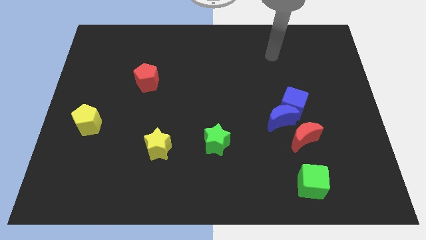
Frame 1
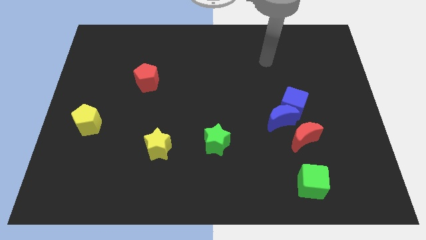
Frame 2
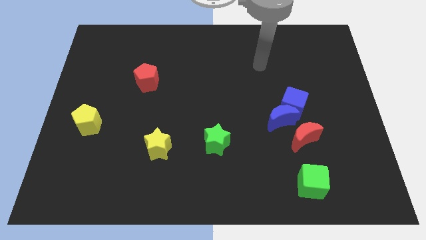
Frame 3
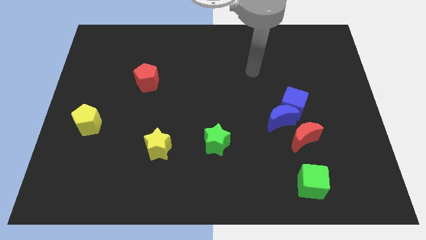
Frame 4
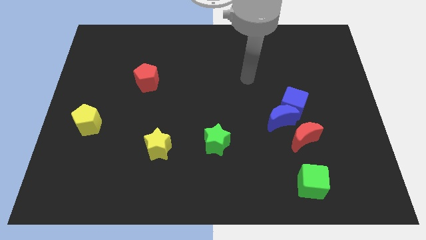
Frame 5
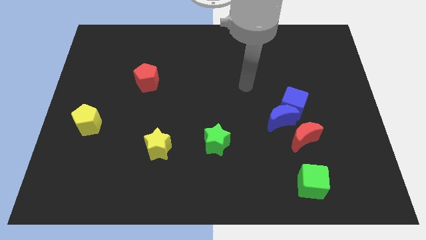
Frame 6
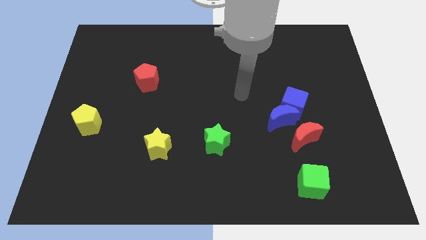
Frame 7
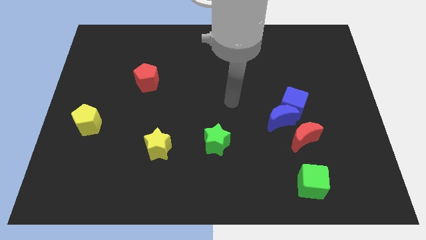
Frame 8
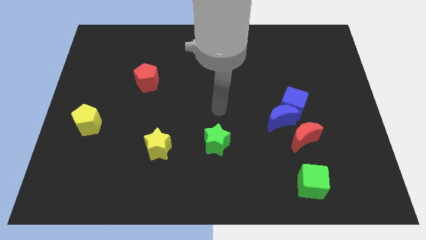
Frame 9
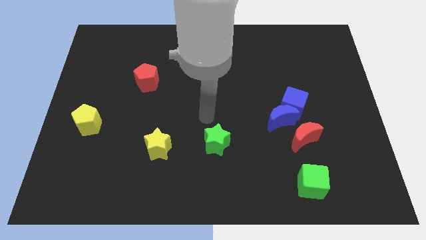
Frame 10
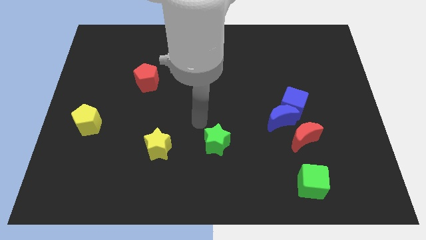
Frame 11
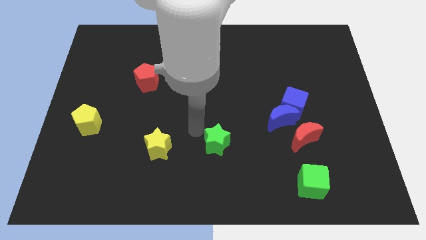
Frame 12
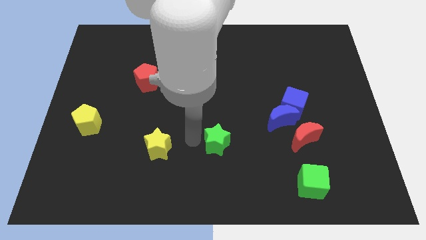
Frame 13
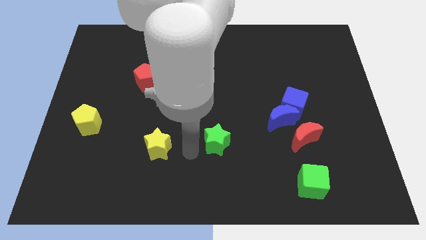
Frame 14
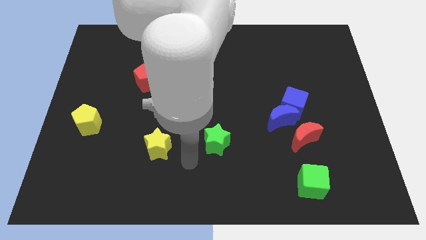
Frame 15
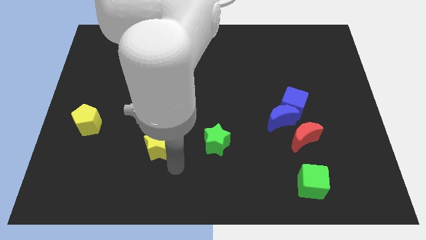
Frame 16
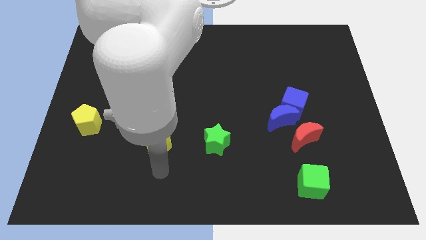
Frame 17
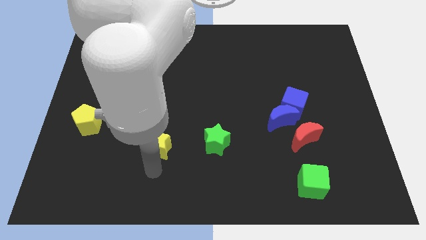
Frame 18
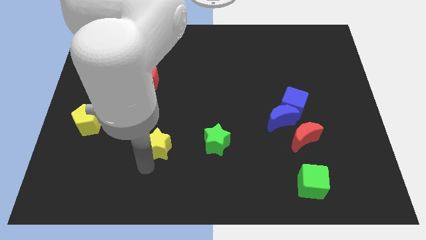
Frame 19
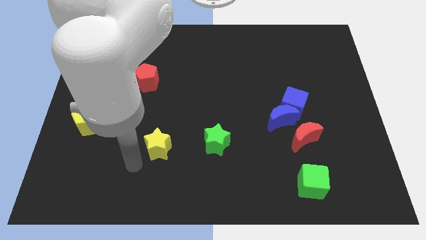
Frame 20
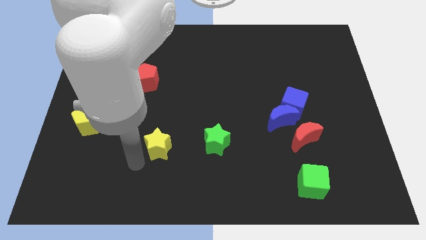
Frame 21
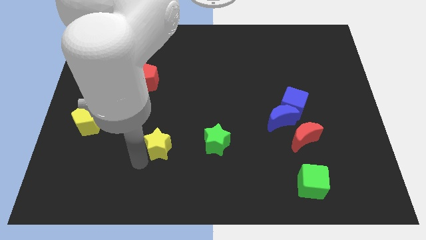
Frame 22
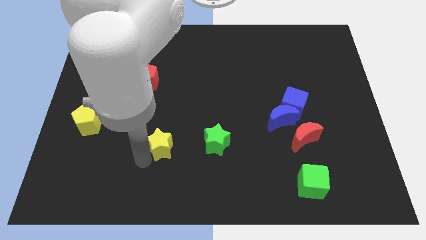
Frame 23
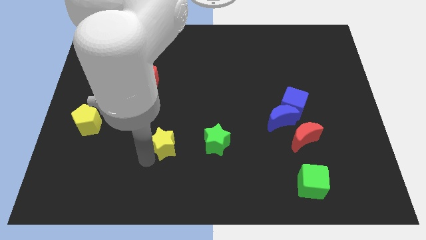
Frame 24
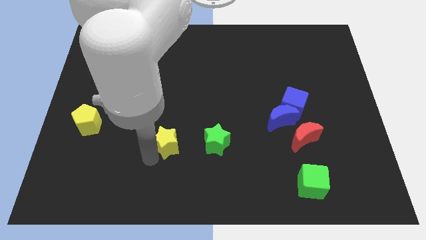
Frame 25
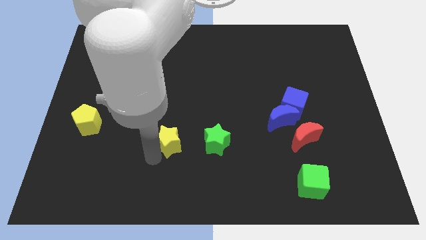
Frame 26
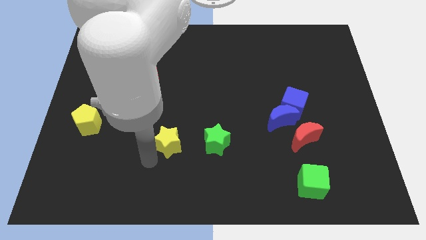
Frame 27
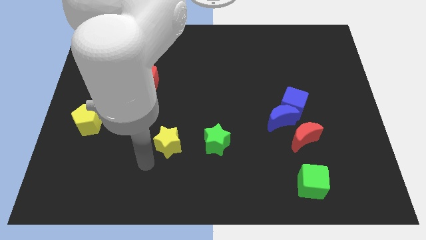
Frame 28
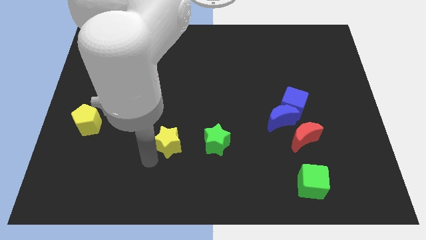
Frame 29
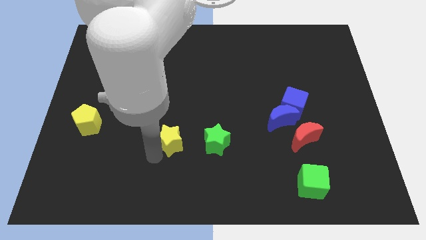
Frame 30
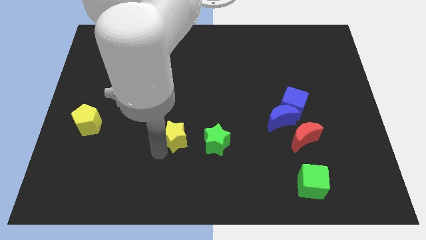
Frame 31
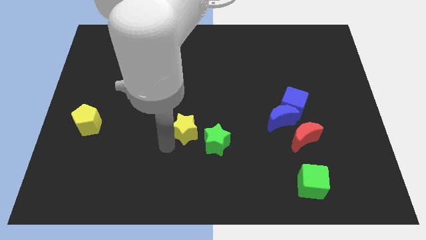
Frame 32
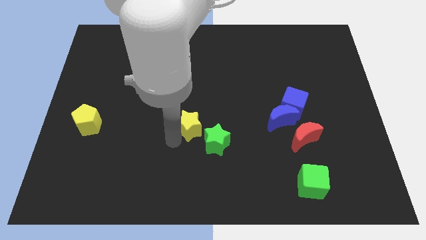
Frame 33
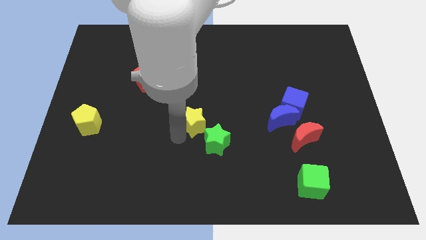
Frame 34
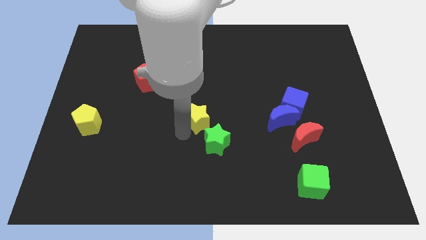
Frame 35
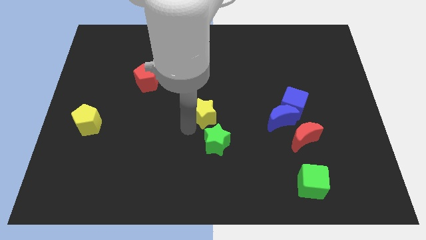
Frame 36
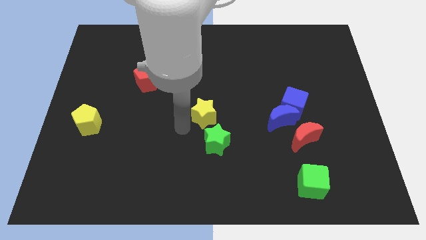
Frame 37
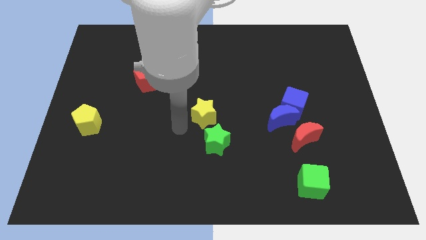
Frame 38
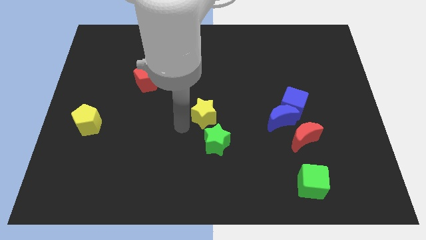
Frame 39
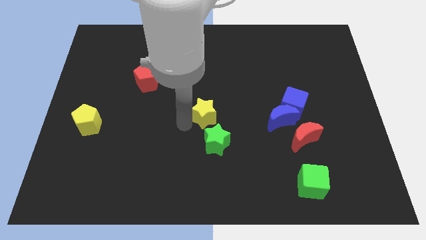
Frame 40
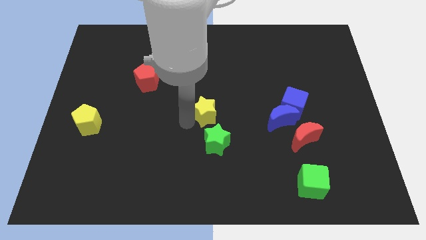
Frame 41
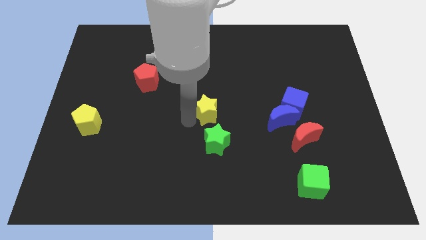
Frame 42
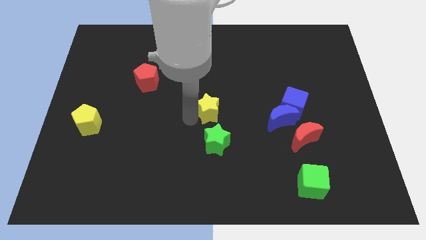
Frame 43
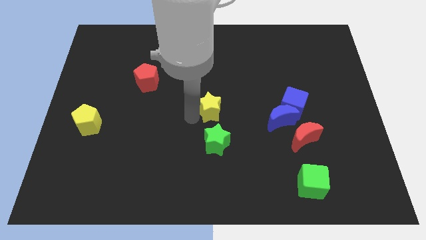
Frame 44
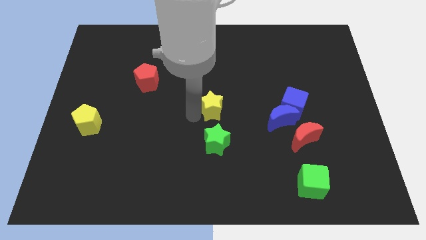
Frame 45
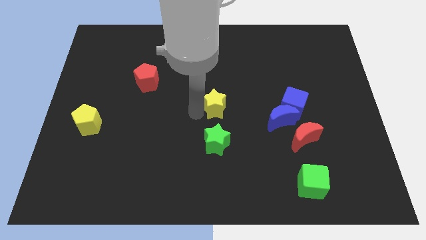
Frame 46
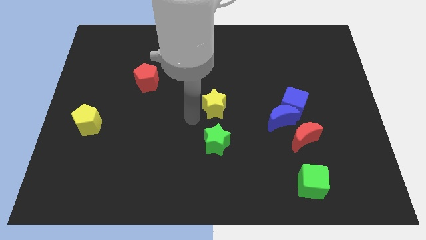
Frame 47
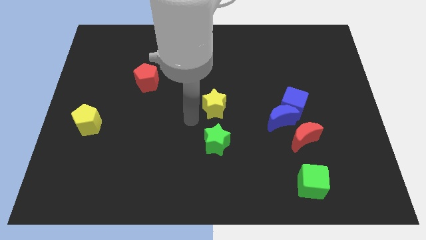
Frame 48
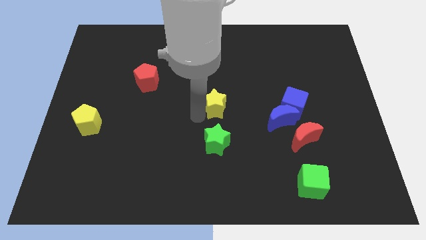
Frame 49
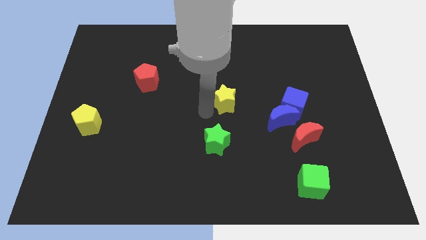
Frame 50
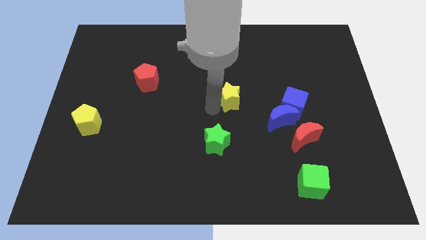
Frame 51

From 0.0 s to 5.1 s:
slide the yellow star upwards and to the right

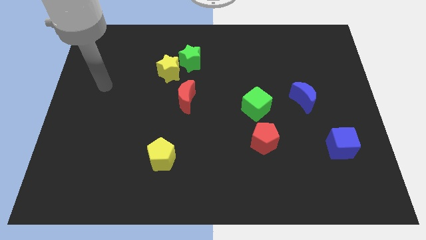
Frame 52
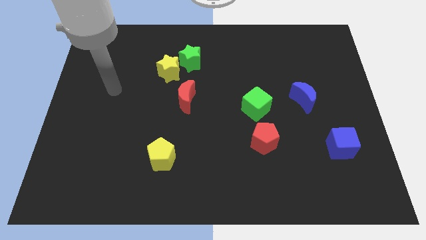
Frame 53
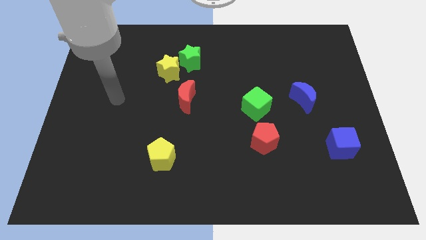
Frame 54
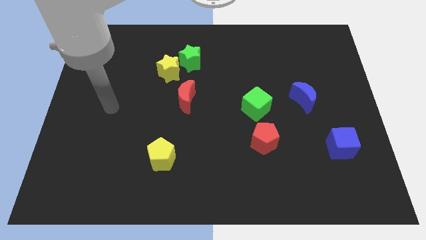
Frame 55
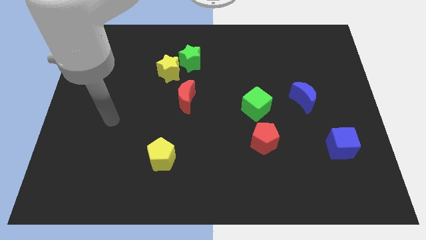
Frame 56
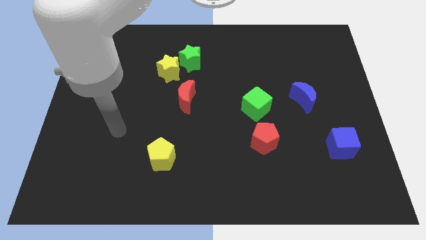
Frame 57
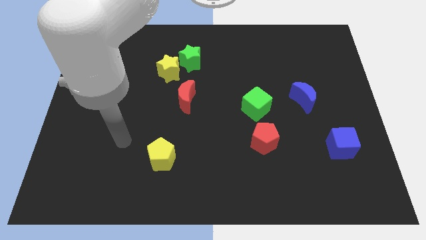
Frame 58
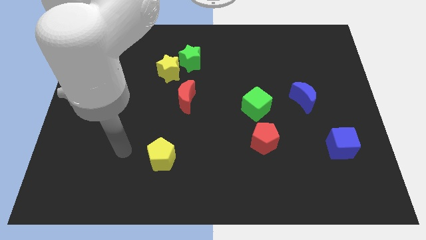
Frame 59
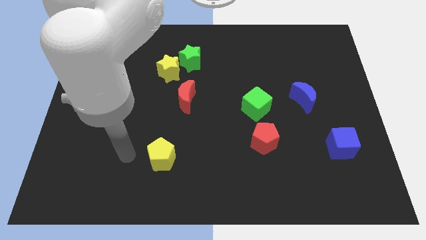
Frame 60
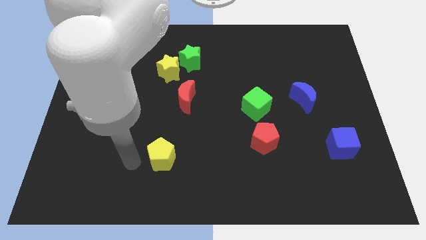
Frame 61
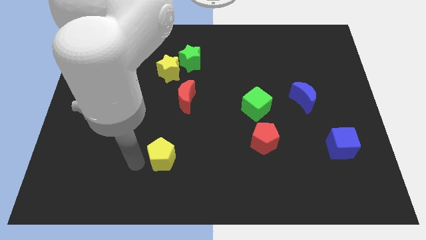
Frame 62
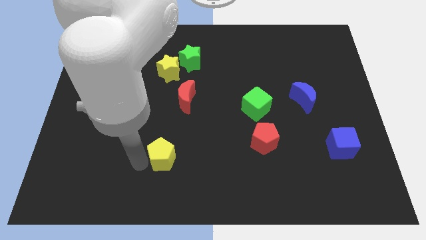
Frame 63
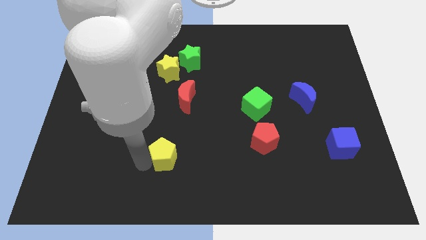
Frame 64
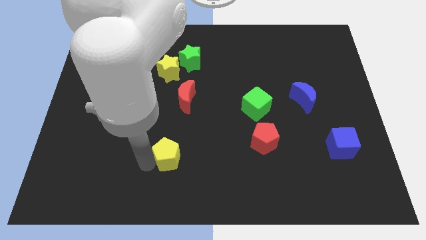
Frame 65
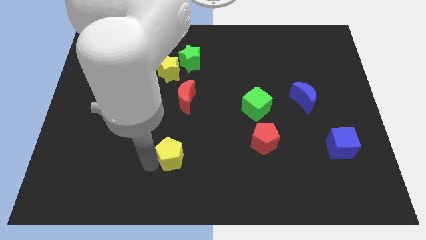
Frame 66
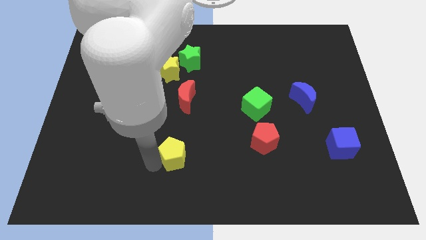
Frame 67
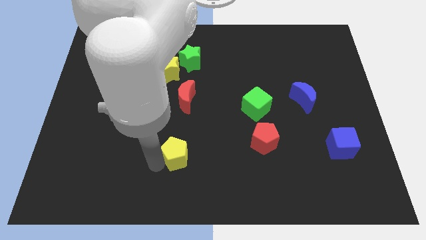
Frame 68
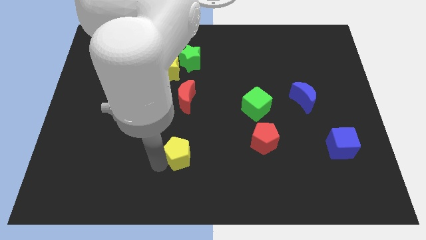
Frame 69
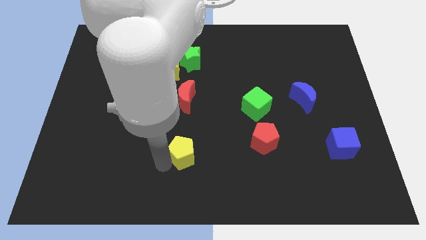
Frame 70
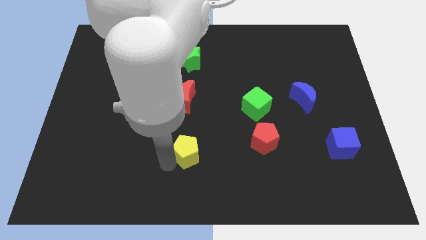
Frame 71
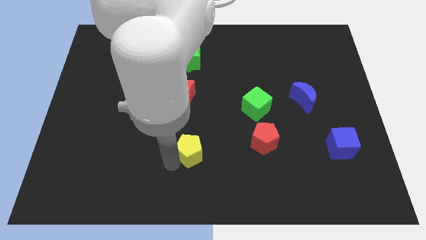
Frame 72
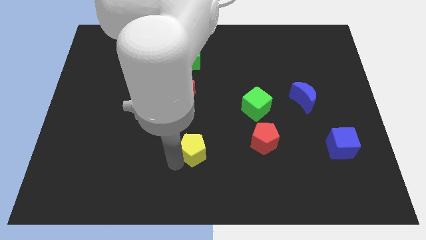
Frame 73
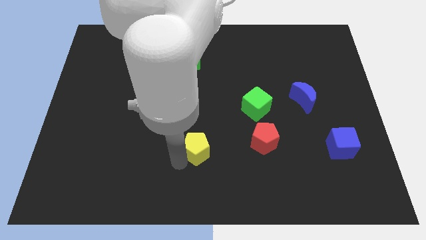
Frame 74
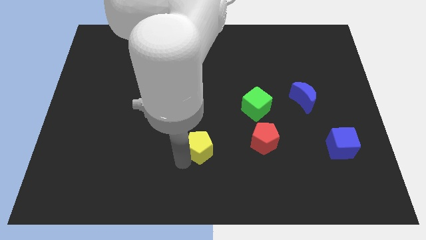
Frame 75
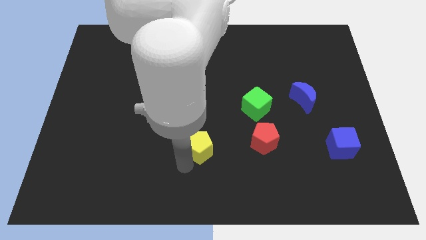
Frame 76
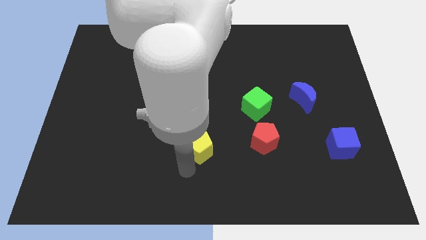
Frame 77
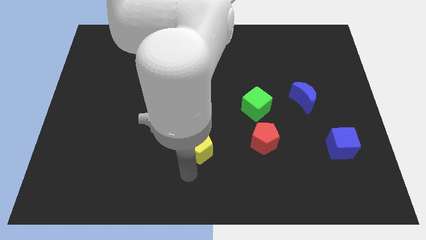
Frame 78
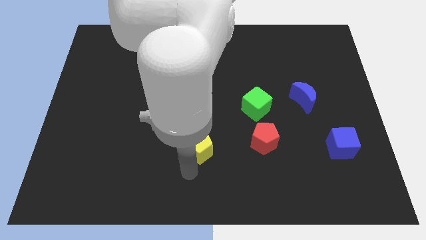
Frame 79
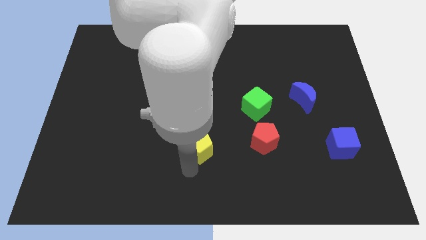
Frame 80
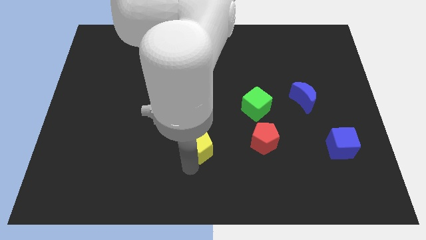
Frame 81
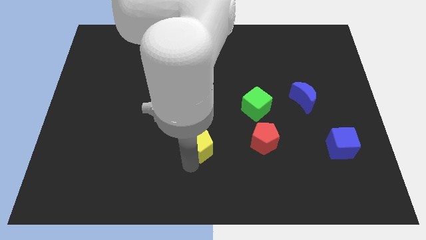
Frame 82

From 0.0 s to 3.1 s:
slightly push the yellow pentagon up and to the right diagonally

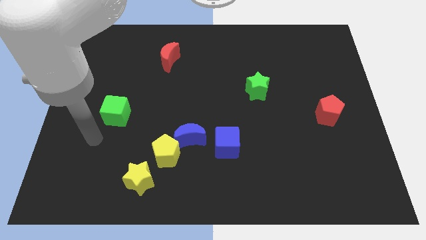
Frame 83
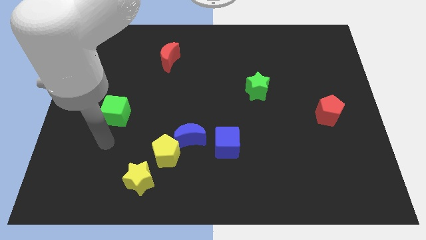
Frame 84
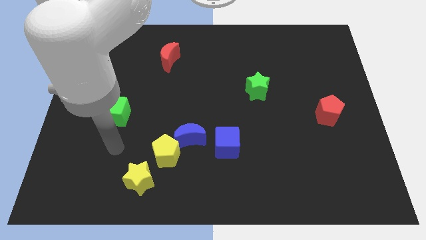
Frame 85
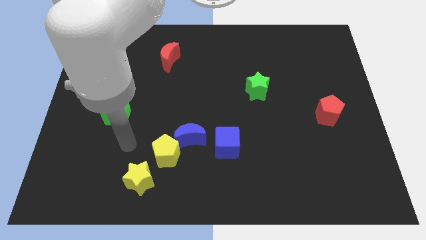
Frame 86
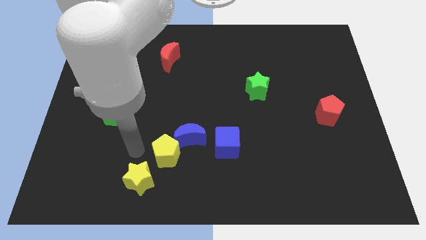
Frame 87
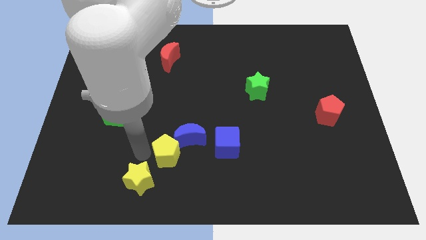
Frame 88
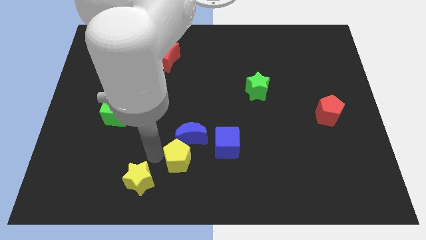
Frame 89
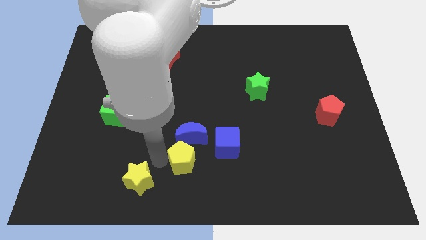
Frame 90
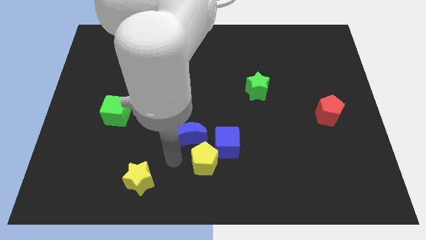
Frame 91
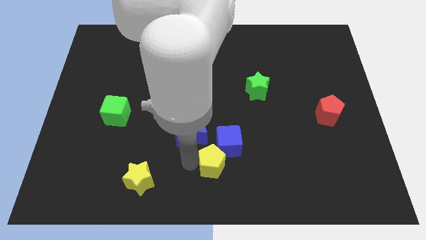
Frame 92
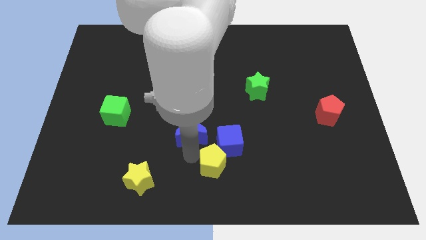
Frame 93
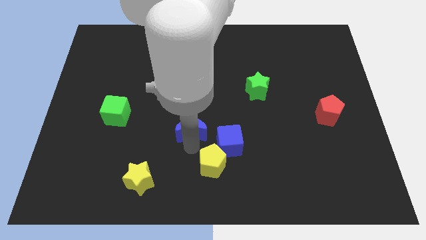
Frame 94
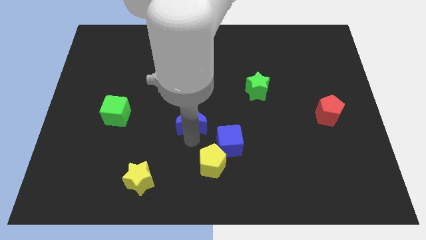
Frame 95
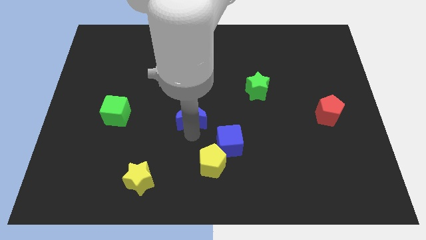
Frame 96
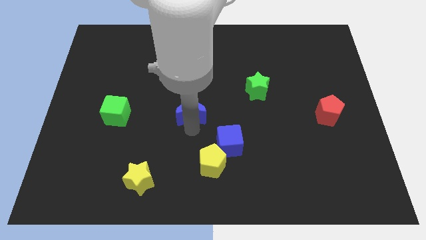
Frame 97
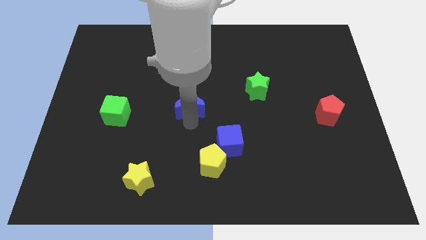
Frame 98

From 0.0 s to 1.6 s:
move the blue moon up a little bit
